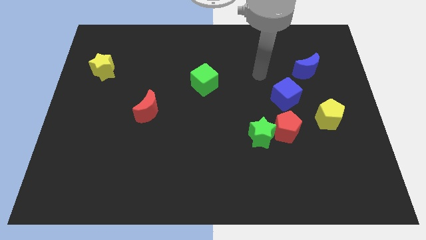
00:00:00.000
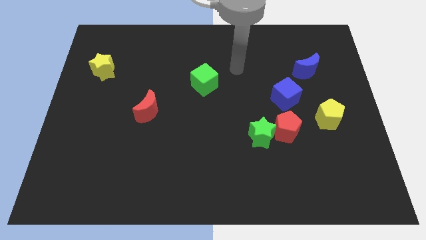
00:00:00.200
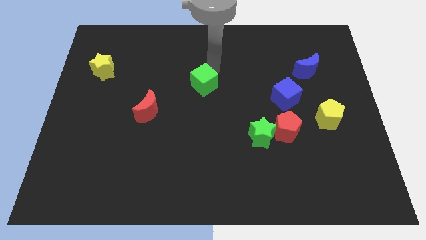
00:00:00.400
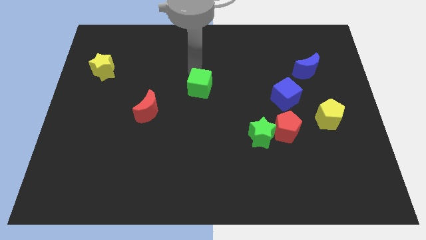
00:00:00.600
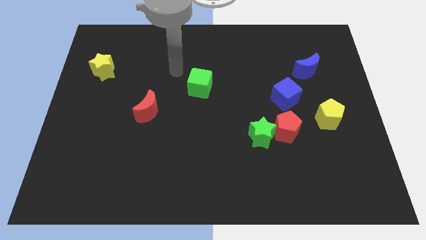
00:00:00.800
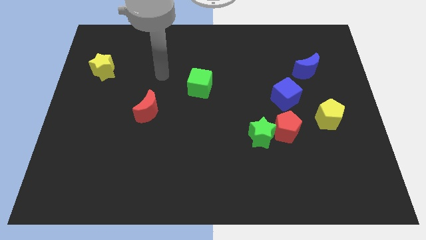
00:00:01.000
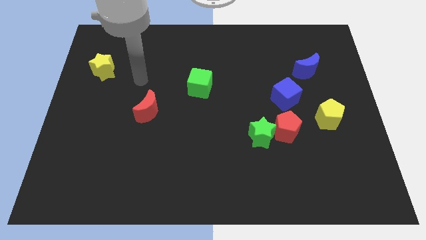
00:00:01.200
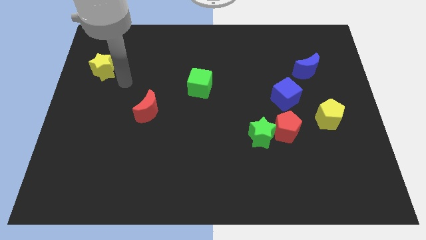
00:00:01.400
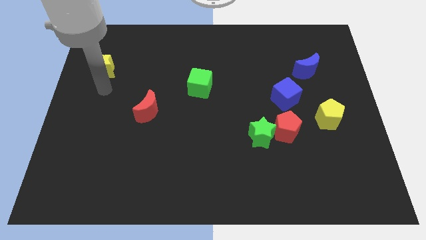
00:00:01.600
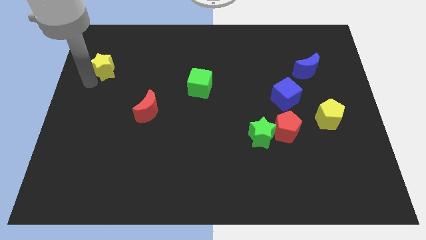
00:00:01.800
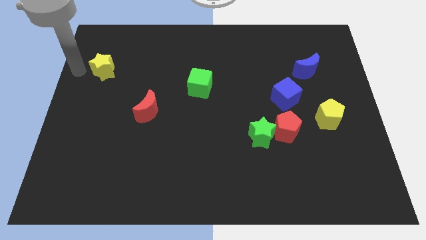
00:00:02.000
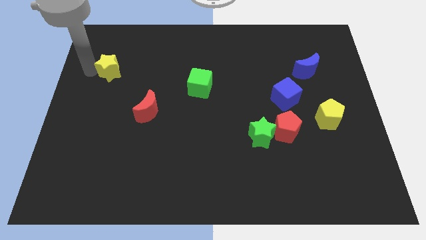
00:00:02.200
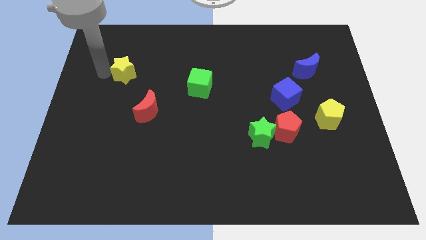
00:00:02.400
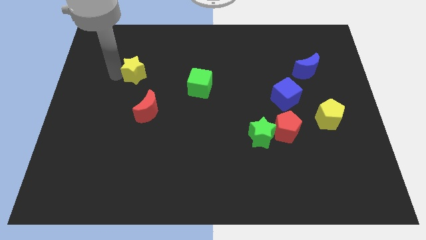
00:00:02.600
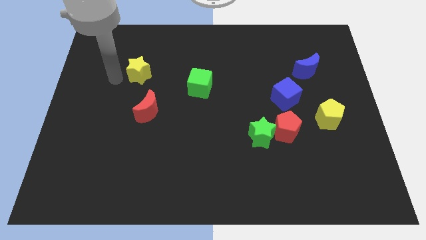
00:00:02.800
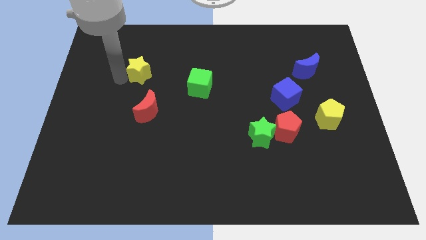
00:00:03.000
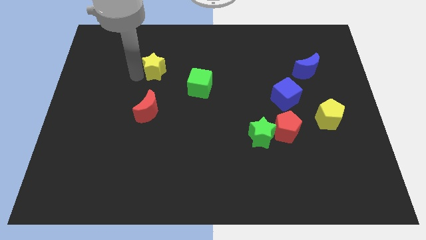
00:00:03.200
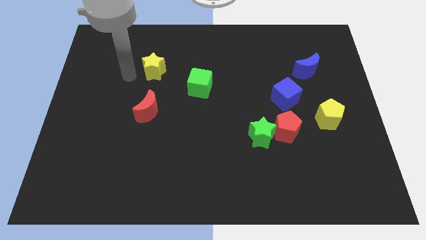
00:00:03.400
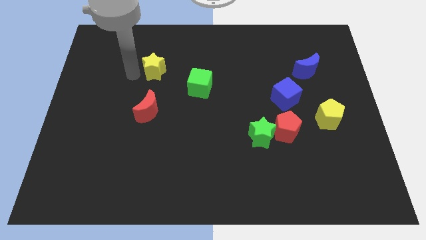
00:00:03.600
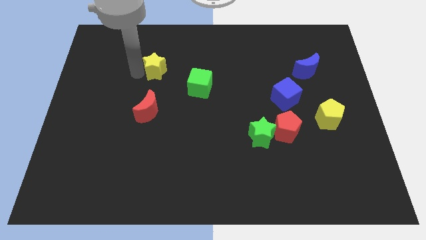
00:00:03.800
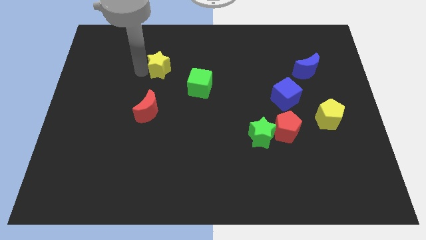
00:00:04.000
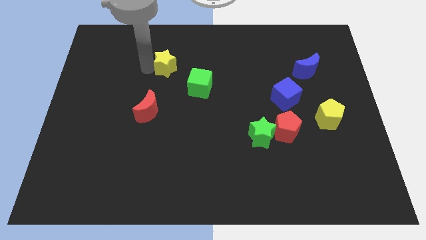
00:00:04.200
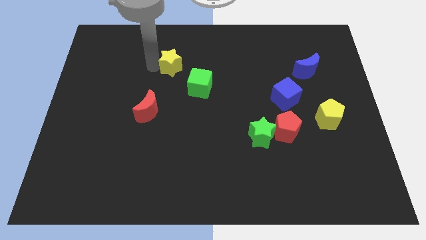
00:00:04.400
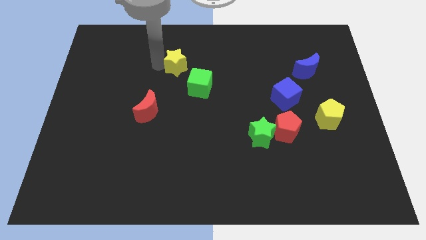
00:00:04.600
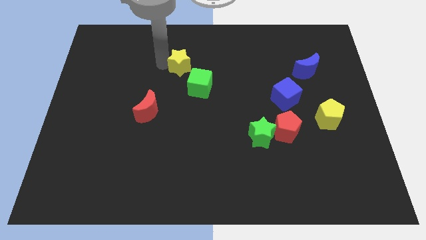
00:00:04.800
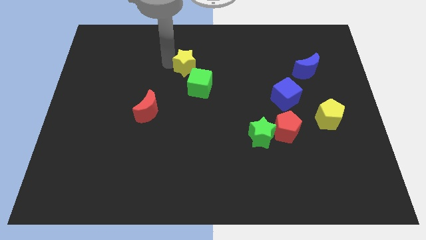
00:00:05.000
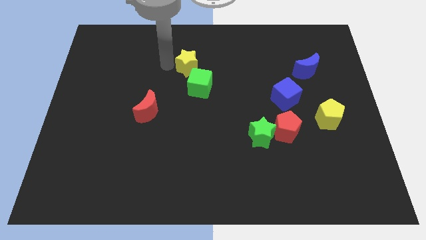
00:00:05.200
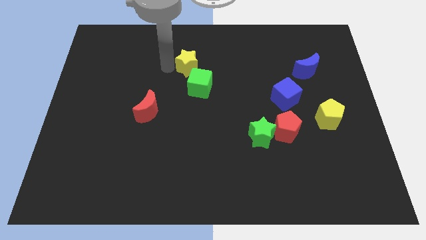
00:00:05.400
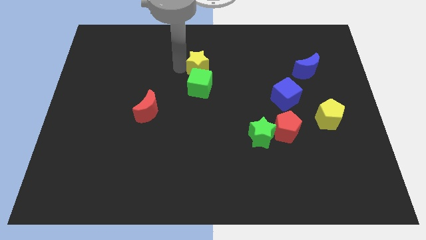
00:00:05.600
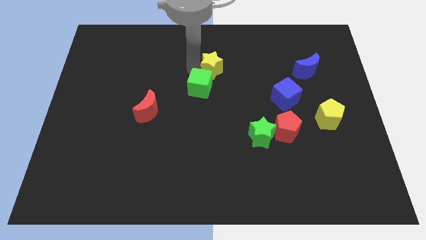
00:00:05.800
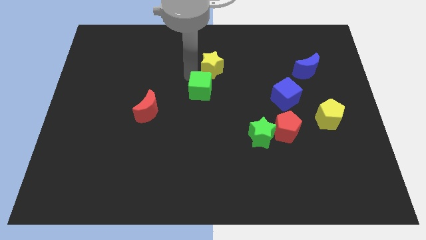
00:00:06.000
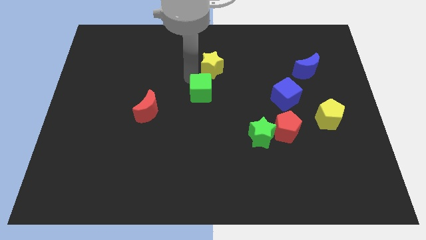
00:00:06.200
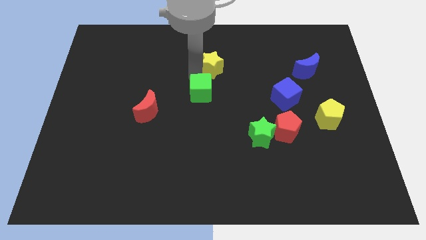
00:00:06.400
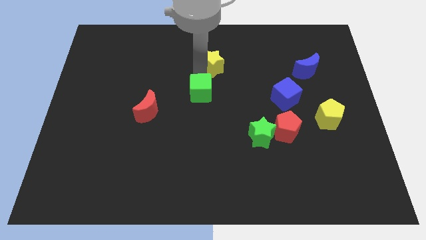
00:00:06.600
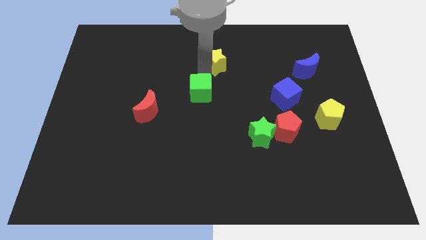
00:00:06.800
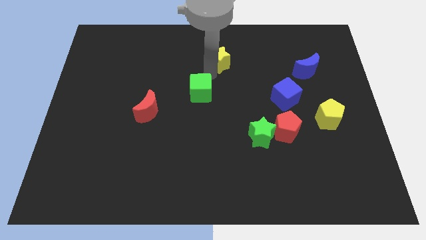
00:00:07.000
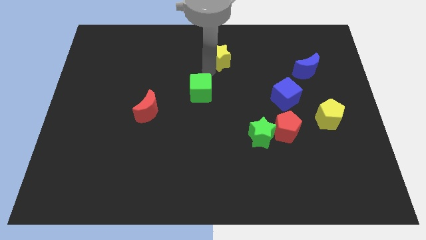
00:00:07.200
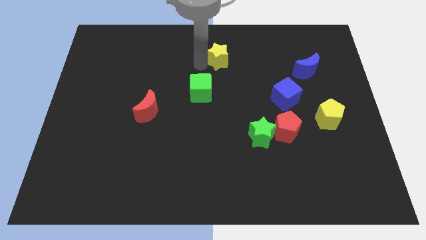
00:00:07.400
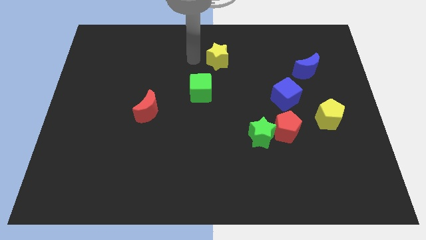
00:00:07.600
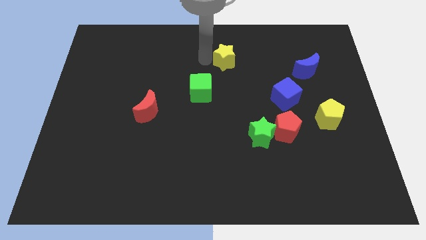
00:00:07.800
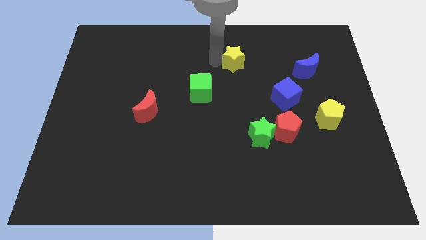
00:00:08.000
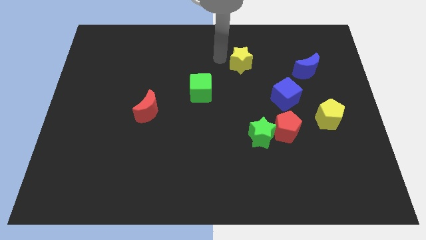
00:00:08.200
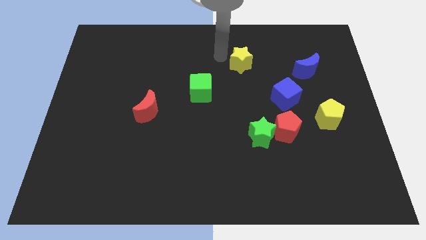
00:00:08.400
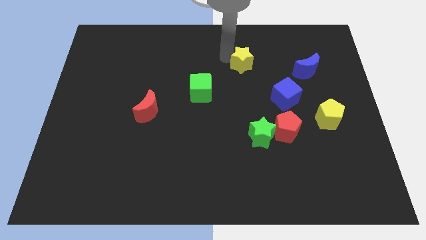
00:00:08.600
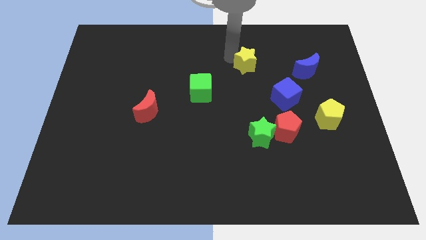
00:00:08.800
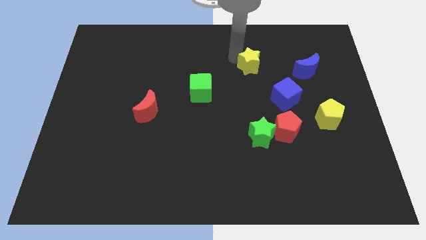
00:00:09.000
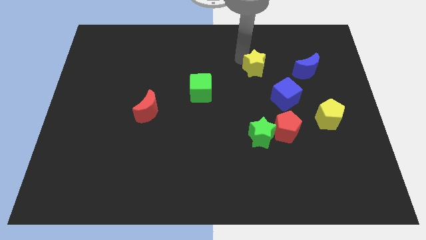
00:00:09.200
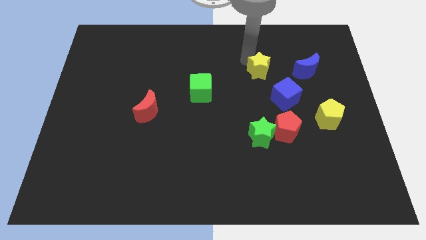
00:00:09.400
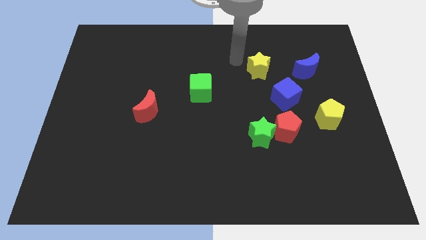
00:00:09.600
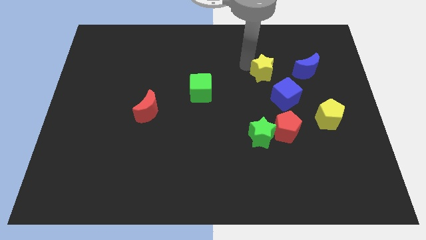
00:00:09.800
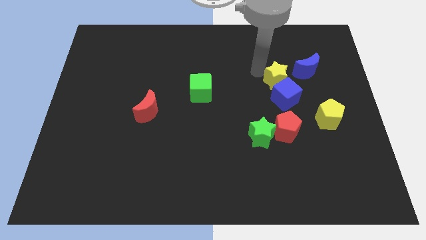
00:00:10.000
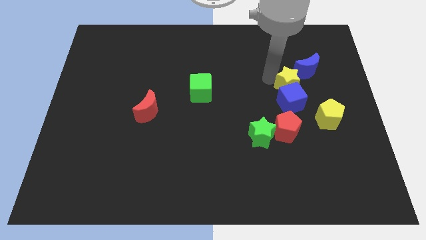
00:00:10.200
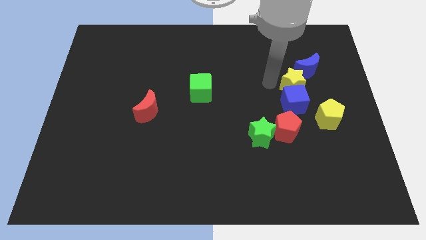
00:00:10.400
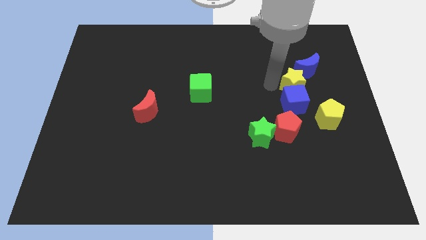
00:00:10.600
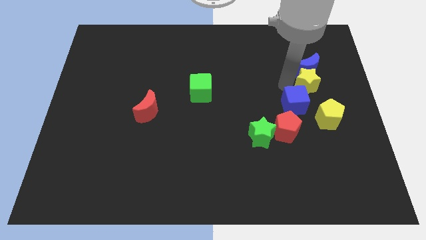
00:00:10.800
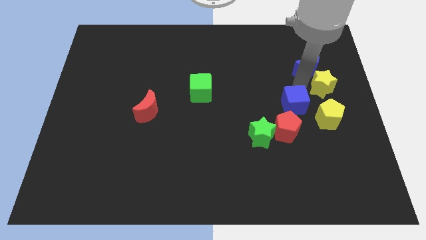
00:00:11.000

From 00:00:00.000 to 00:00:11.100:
put the yellow star to the right side of the board

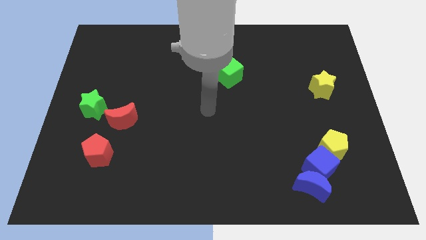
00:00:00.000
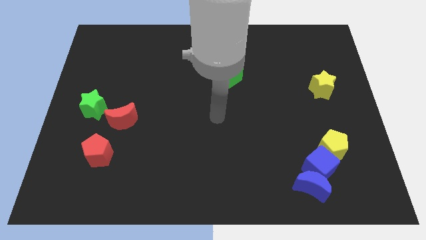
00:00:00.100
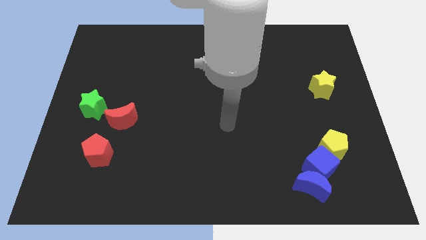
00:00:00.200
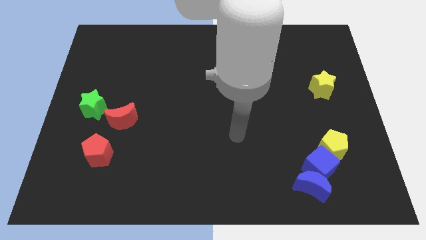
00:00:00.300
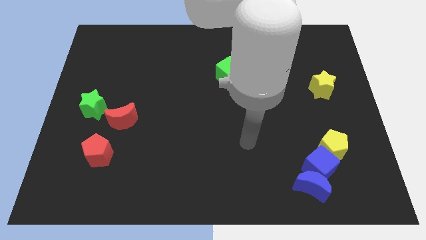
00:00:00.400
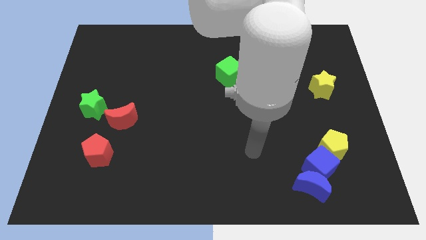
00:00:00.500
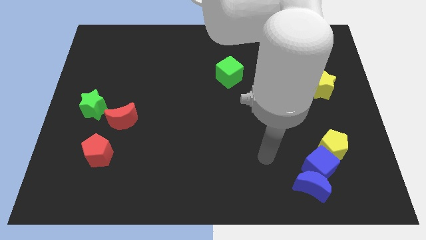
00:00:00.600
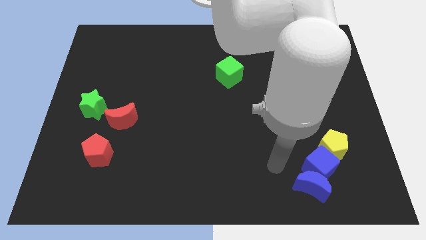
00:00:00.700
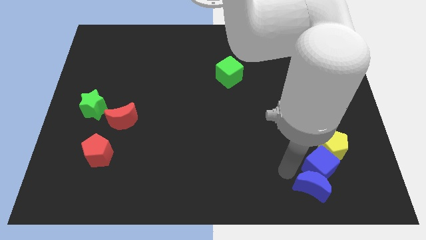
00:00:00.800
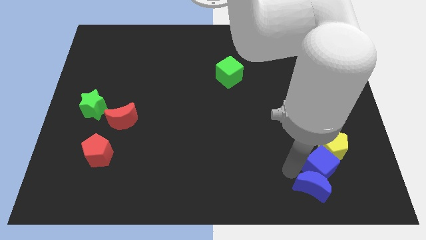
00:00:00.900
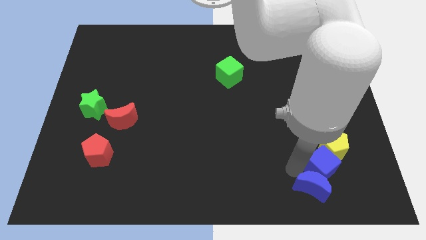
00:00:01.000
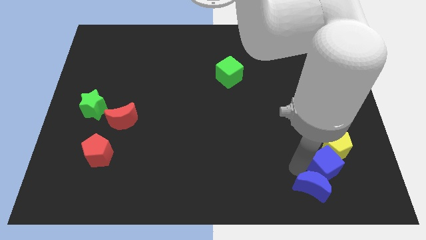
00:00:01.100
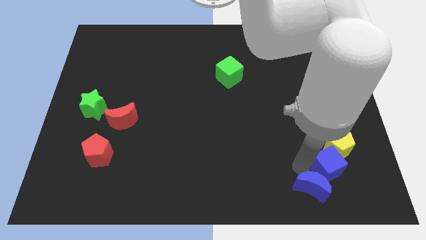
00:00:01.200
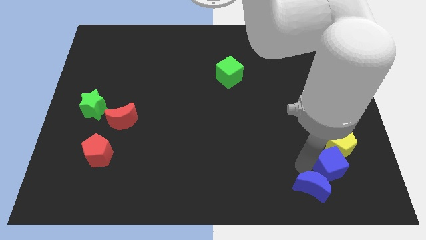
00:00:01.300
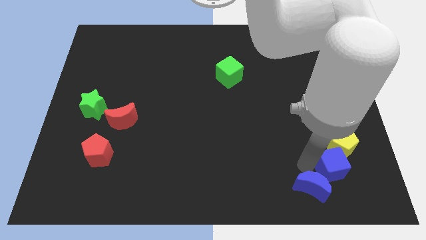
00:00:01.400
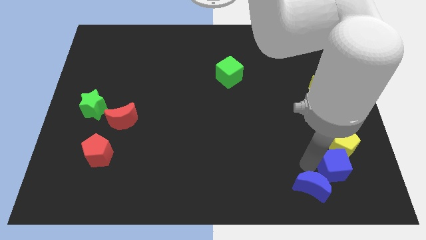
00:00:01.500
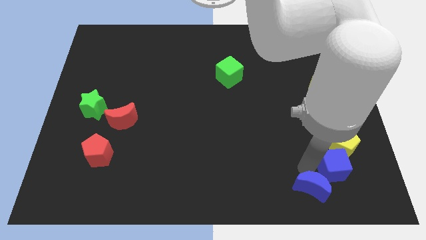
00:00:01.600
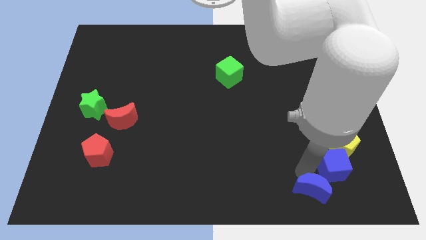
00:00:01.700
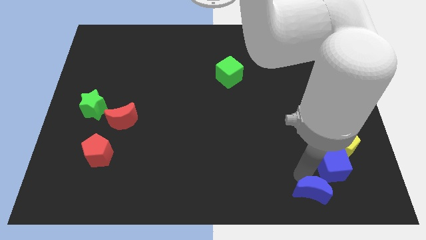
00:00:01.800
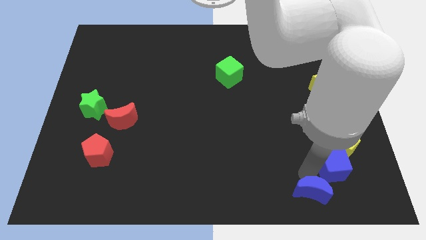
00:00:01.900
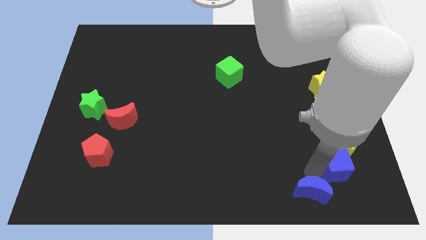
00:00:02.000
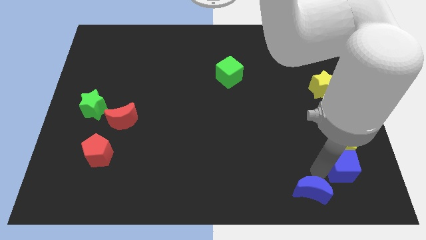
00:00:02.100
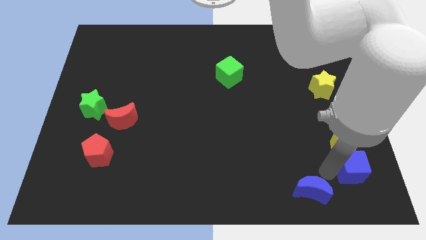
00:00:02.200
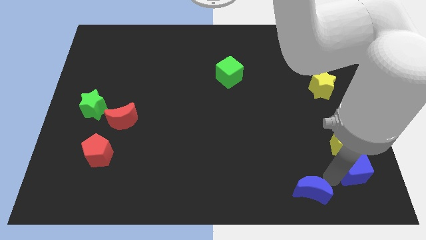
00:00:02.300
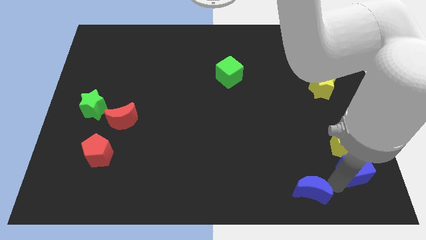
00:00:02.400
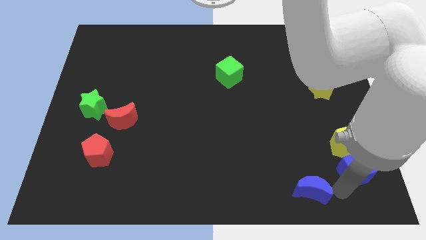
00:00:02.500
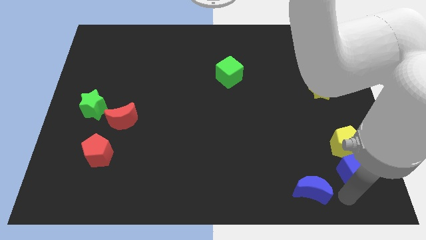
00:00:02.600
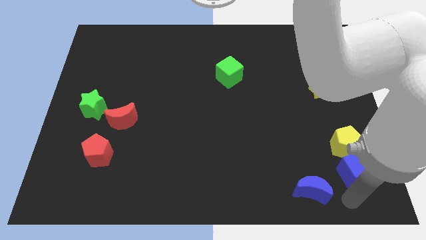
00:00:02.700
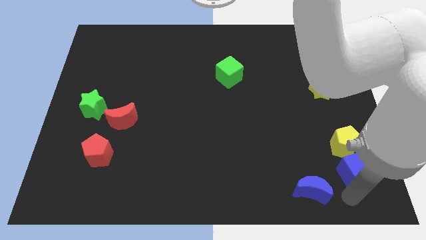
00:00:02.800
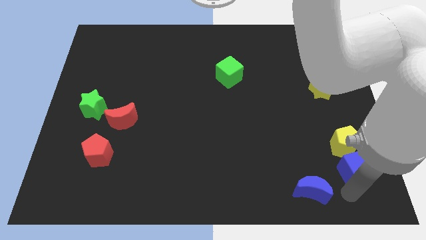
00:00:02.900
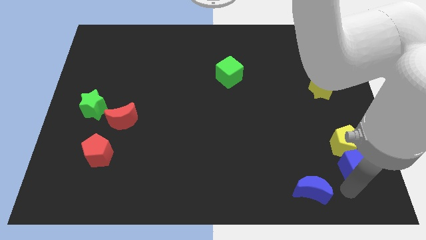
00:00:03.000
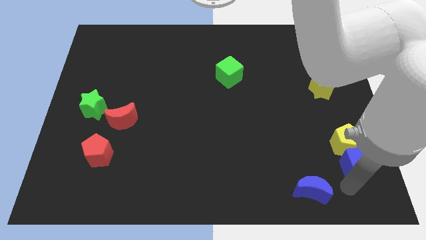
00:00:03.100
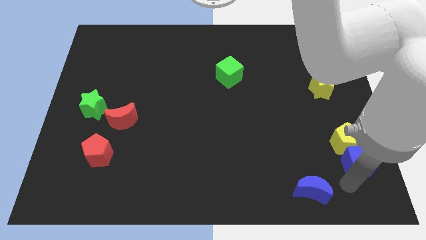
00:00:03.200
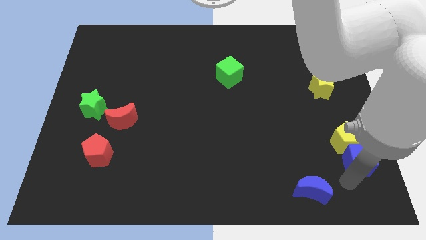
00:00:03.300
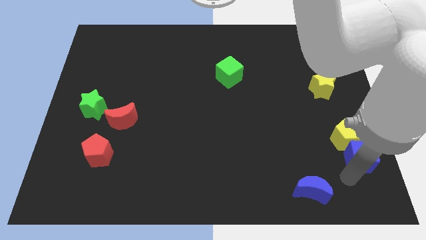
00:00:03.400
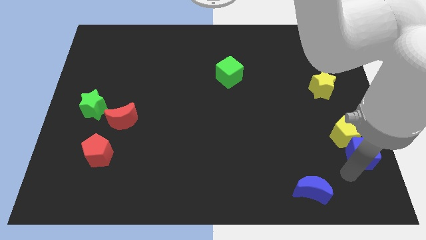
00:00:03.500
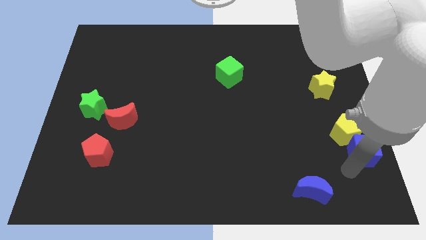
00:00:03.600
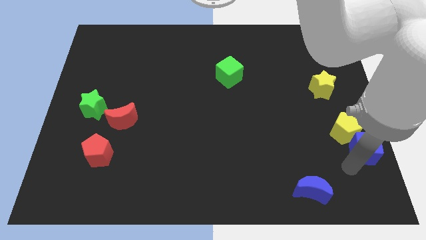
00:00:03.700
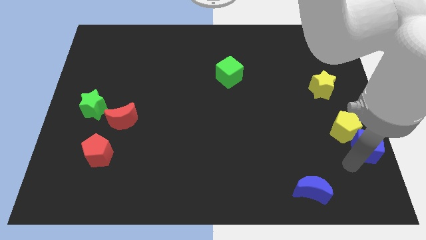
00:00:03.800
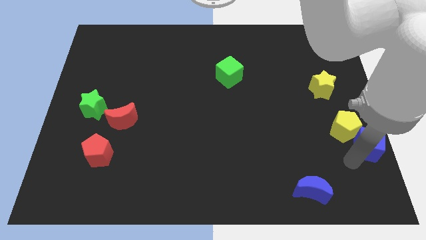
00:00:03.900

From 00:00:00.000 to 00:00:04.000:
put the blue cube to the right side of the board
